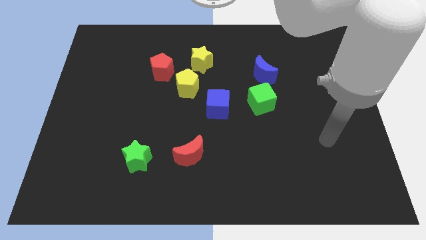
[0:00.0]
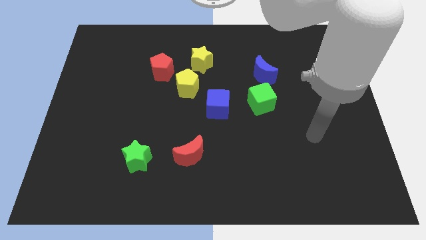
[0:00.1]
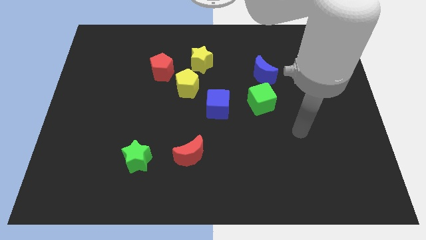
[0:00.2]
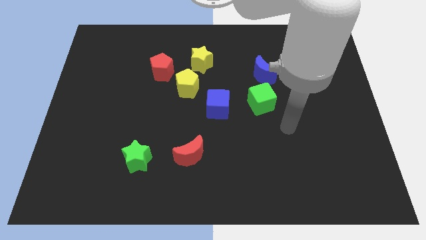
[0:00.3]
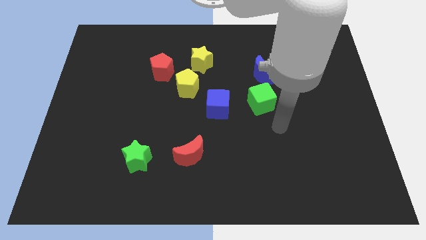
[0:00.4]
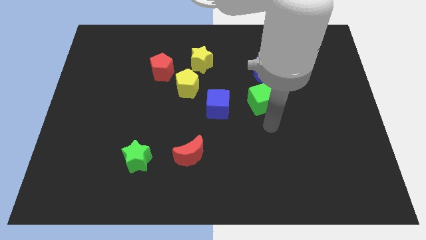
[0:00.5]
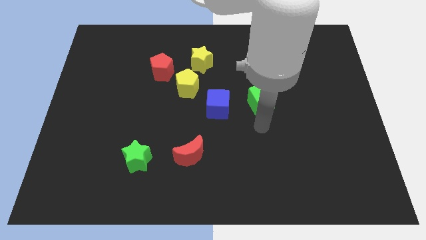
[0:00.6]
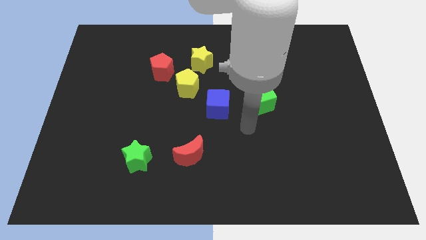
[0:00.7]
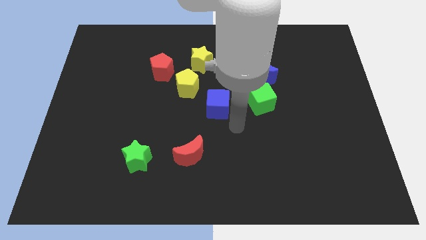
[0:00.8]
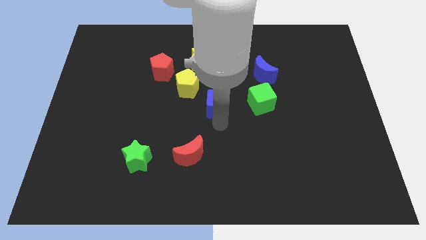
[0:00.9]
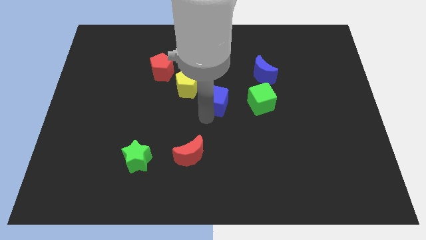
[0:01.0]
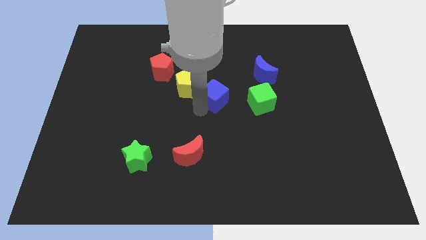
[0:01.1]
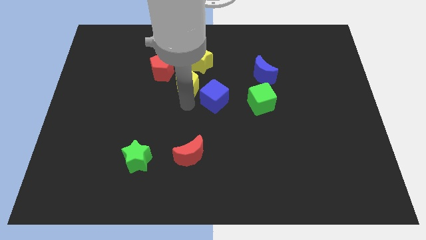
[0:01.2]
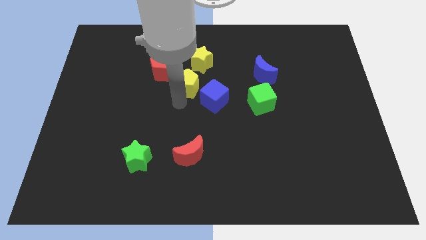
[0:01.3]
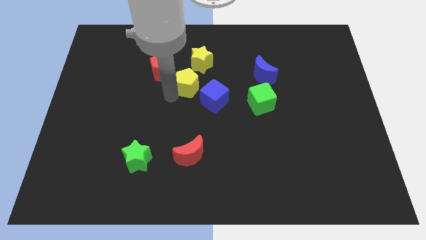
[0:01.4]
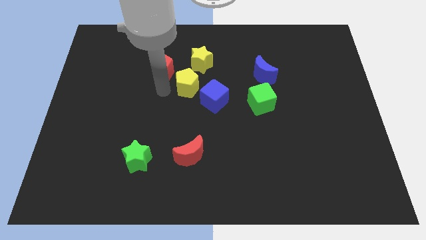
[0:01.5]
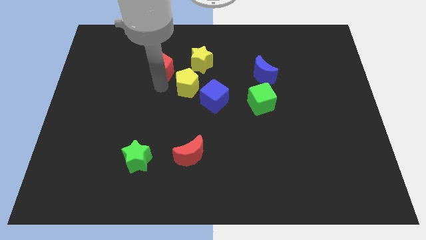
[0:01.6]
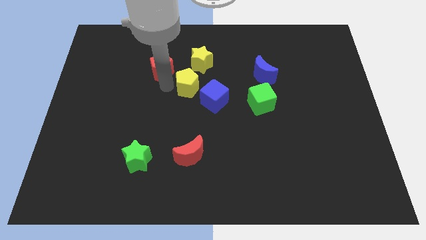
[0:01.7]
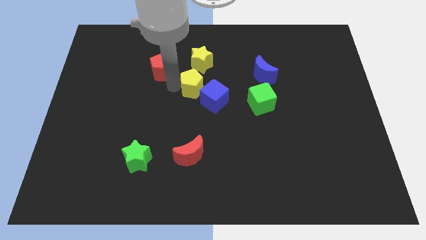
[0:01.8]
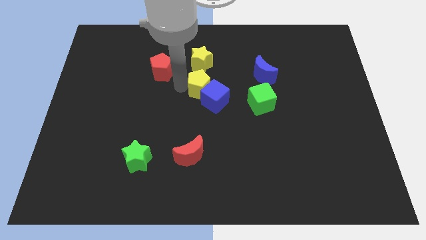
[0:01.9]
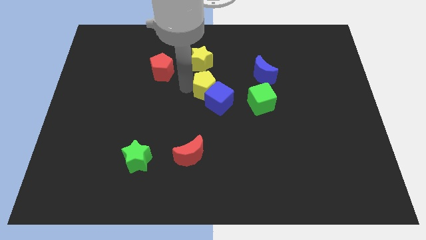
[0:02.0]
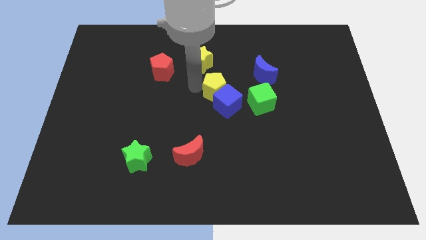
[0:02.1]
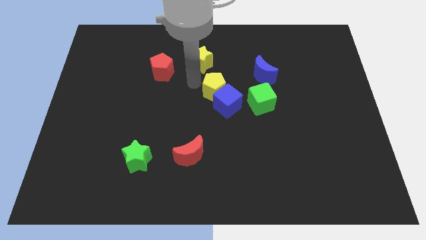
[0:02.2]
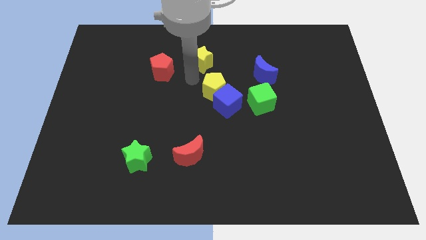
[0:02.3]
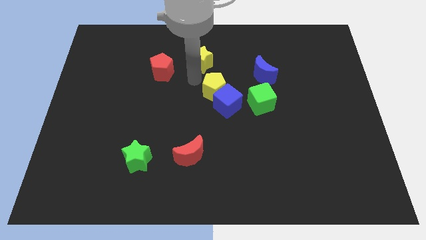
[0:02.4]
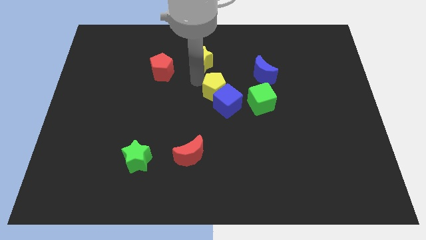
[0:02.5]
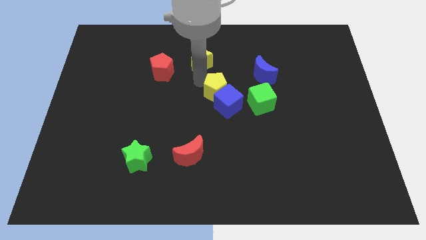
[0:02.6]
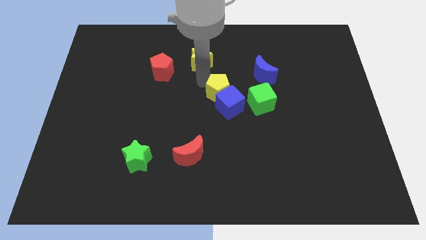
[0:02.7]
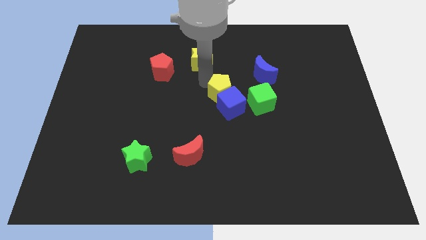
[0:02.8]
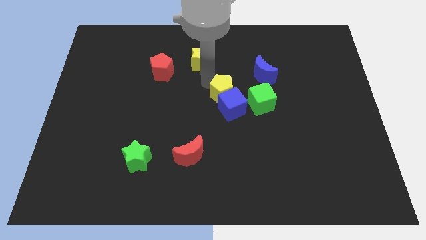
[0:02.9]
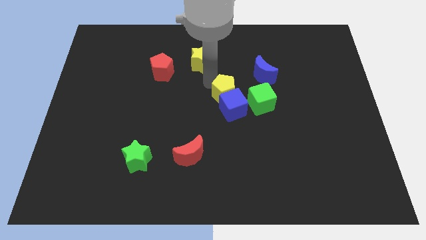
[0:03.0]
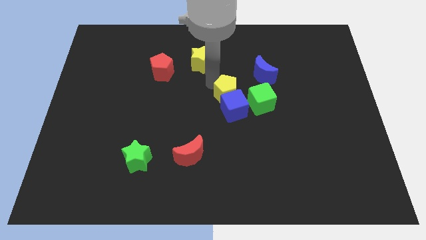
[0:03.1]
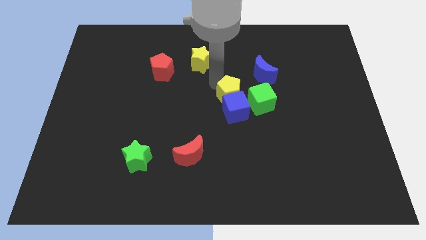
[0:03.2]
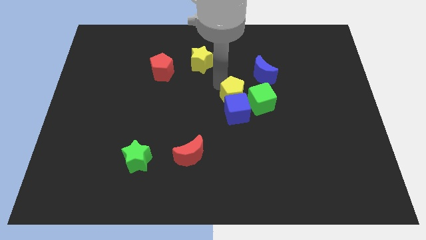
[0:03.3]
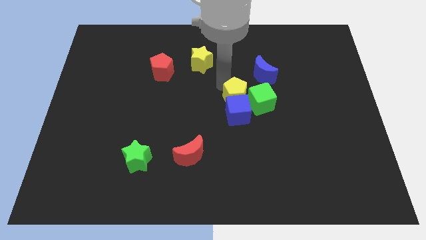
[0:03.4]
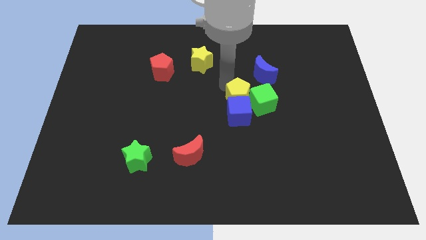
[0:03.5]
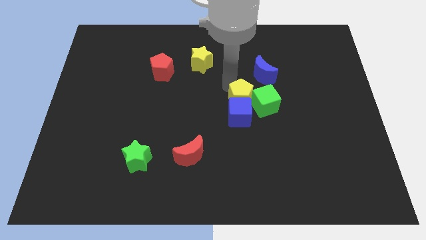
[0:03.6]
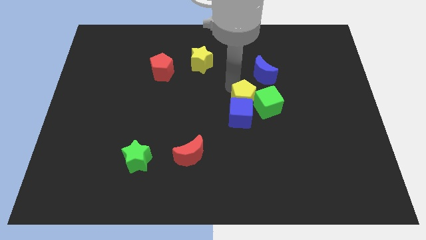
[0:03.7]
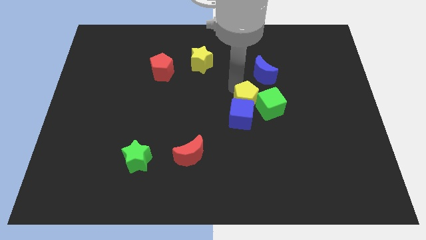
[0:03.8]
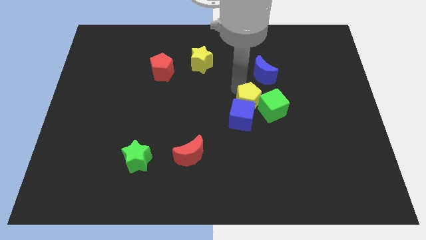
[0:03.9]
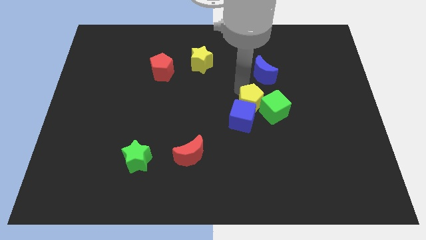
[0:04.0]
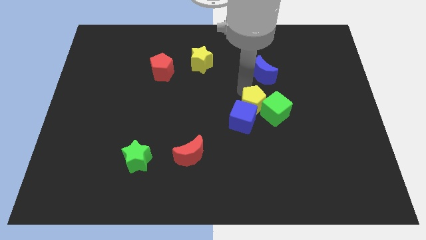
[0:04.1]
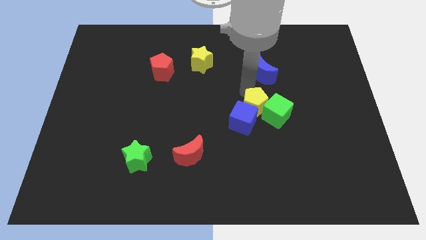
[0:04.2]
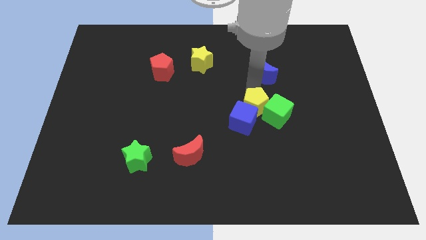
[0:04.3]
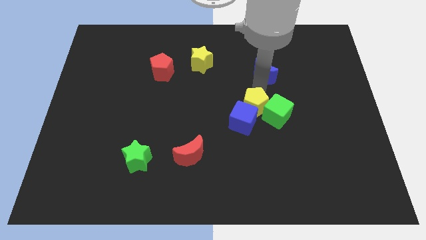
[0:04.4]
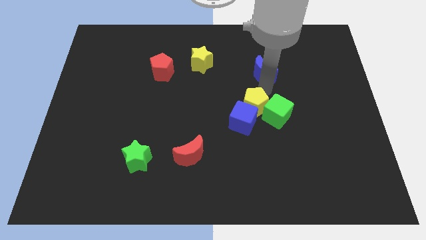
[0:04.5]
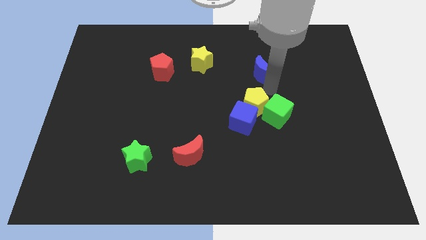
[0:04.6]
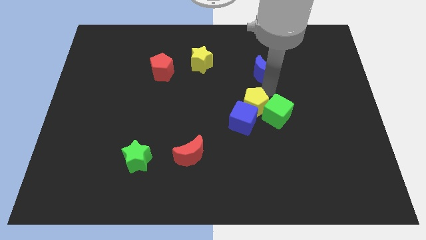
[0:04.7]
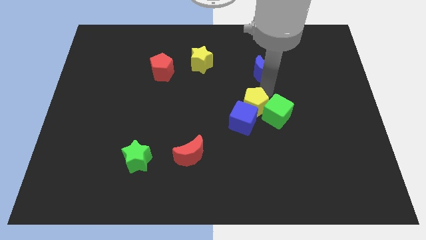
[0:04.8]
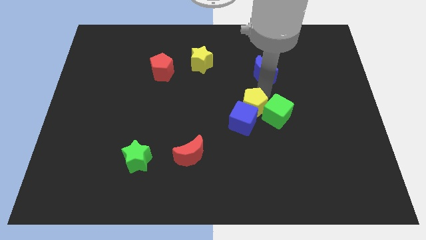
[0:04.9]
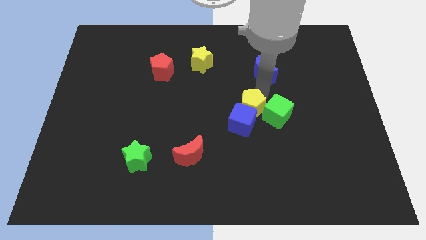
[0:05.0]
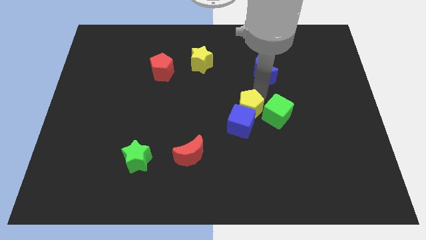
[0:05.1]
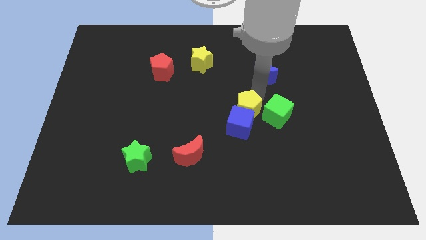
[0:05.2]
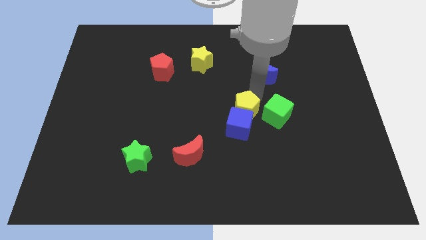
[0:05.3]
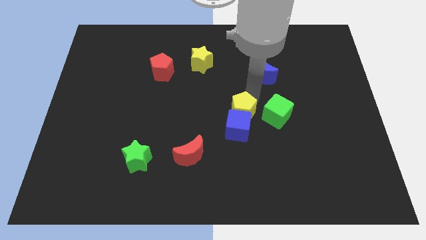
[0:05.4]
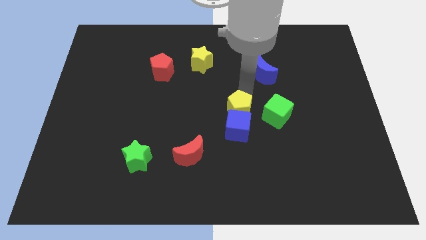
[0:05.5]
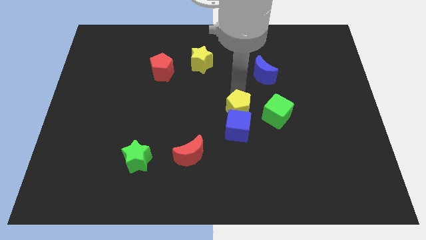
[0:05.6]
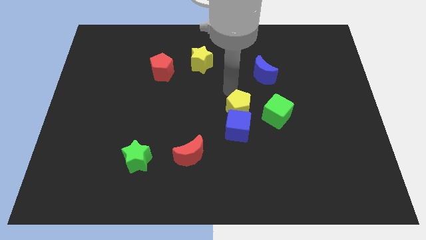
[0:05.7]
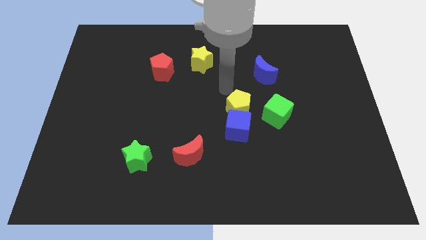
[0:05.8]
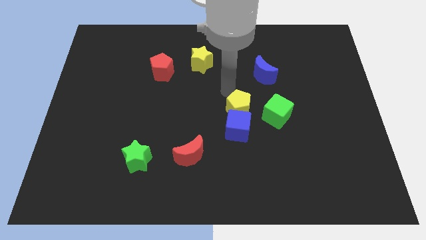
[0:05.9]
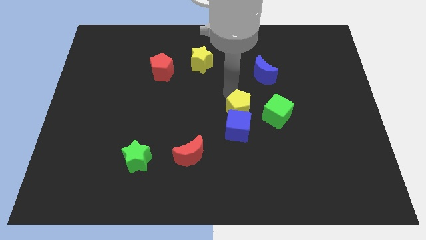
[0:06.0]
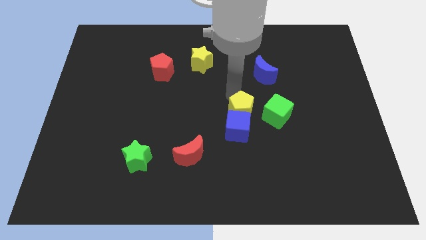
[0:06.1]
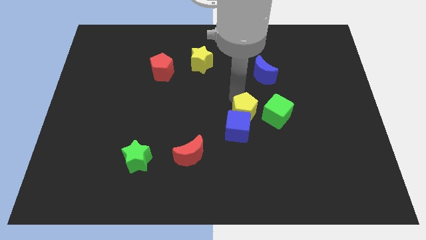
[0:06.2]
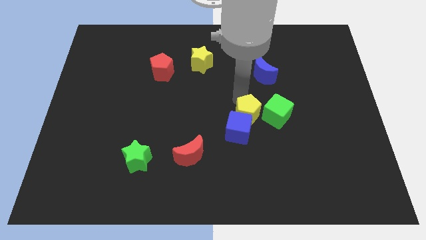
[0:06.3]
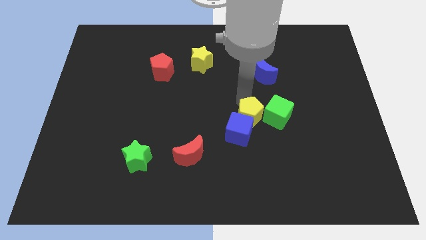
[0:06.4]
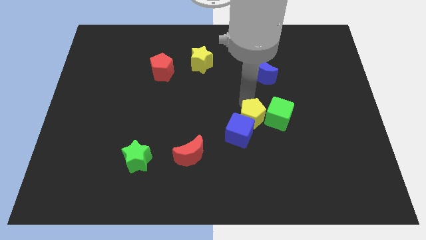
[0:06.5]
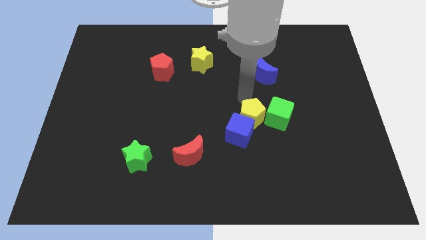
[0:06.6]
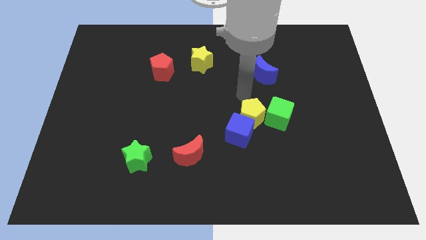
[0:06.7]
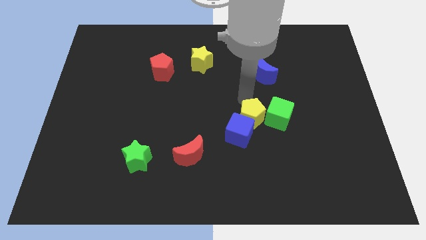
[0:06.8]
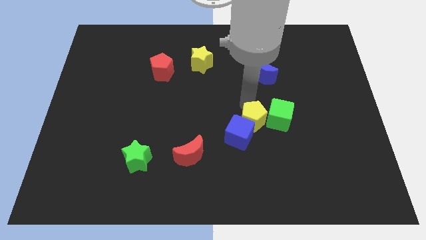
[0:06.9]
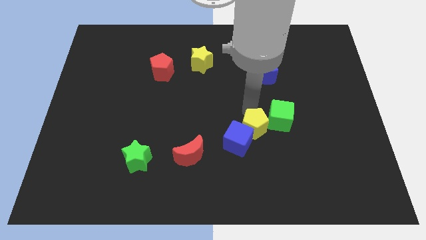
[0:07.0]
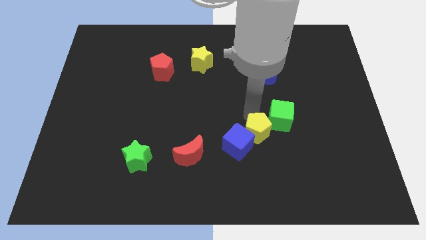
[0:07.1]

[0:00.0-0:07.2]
move the yellow pentagon down and then right

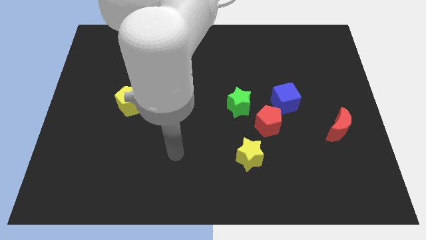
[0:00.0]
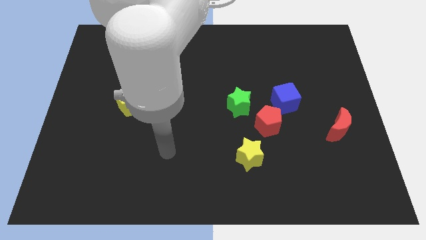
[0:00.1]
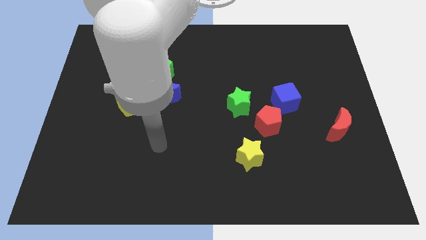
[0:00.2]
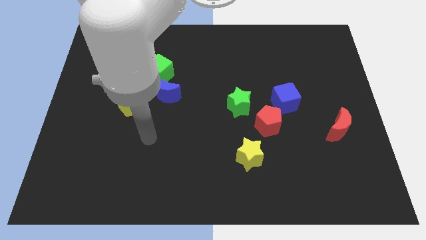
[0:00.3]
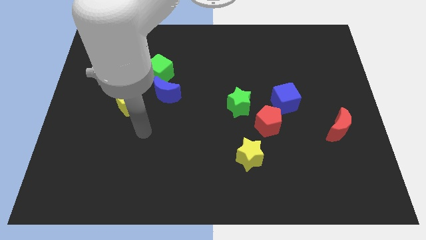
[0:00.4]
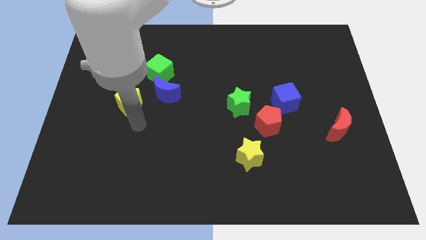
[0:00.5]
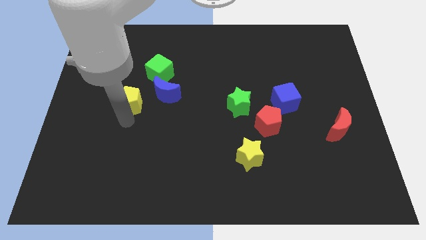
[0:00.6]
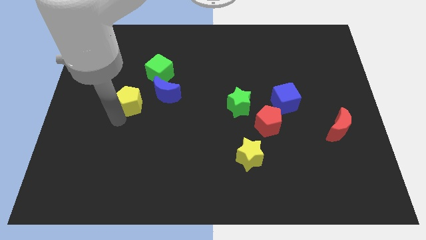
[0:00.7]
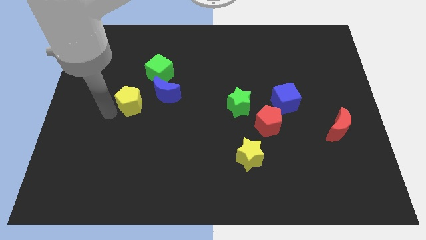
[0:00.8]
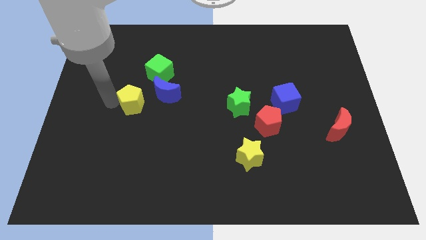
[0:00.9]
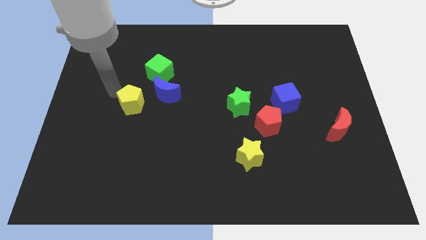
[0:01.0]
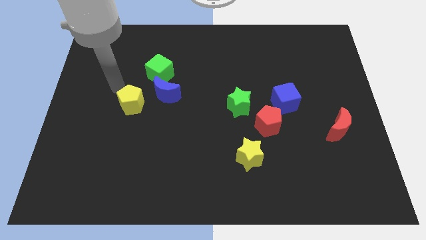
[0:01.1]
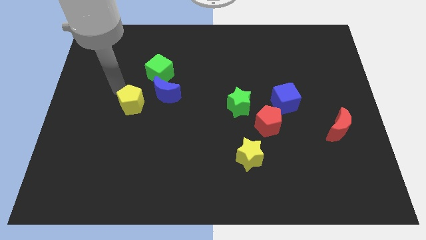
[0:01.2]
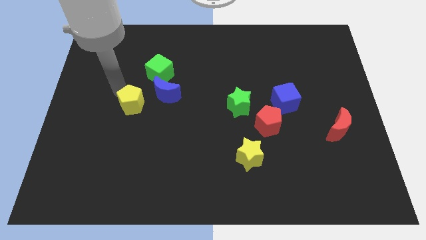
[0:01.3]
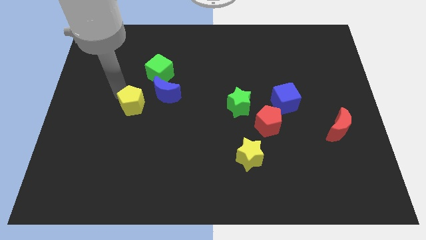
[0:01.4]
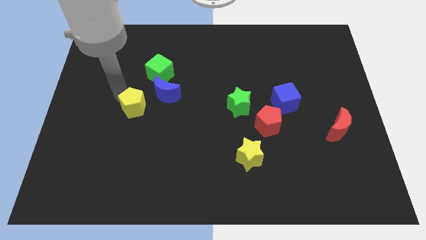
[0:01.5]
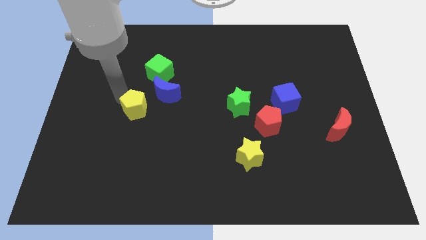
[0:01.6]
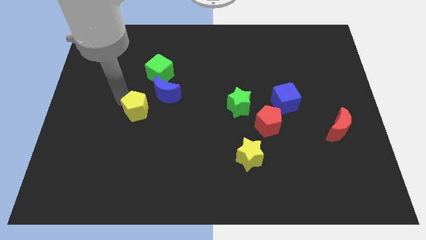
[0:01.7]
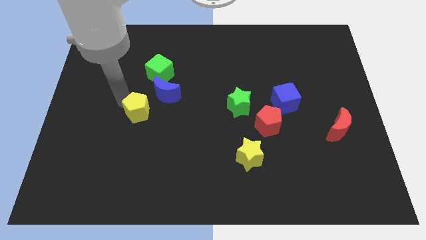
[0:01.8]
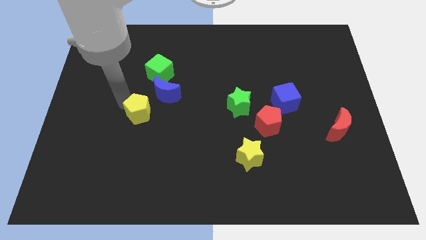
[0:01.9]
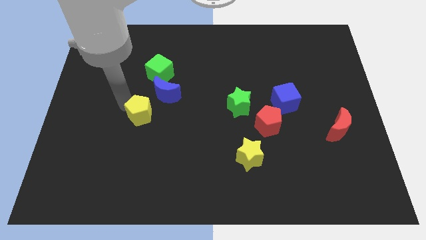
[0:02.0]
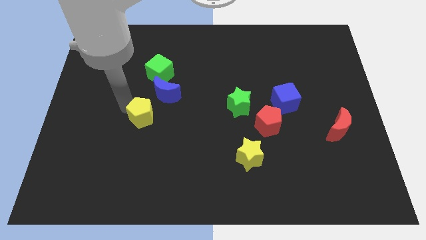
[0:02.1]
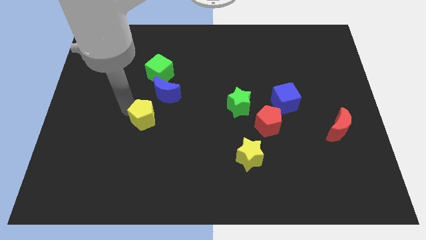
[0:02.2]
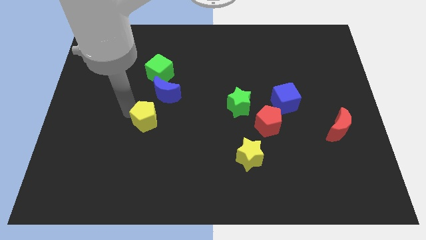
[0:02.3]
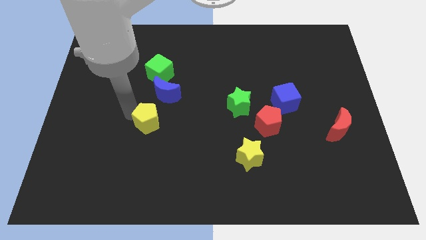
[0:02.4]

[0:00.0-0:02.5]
slide the yellow pentagon downwards and to the right diagonally slightly
